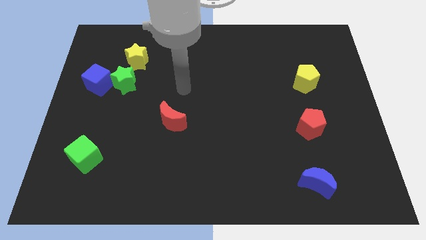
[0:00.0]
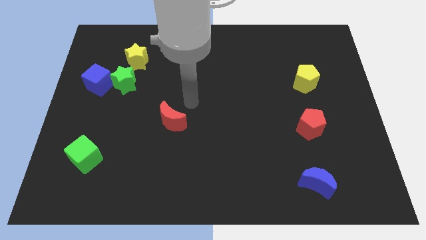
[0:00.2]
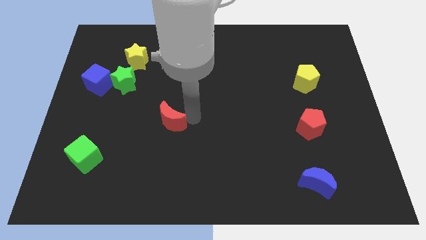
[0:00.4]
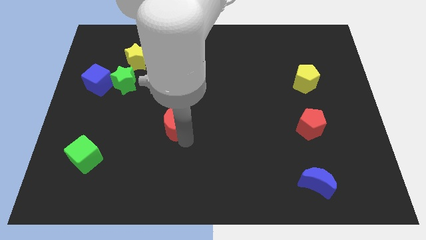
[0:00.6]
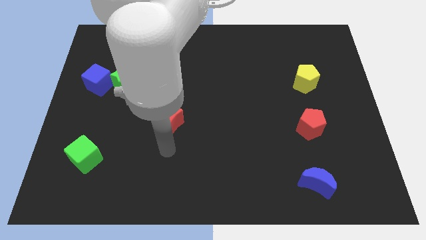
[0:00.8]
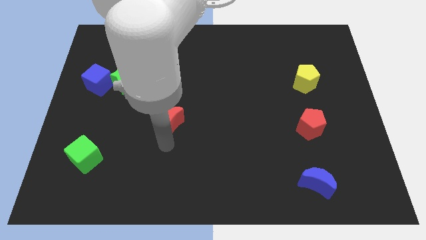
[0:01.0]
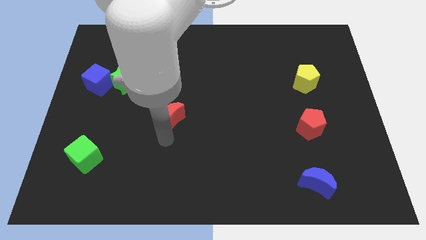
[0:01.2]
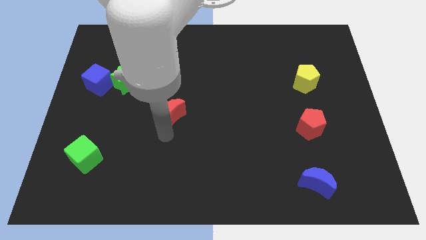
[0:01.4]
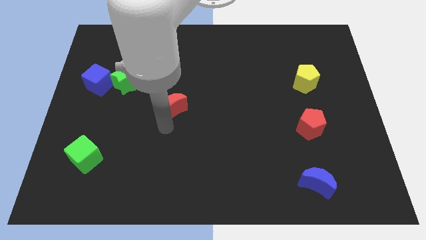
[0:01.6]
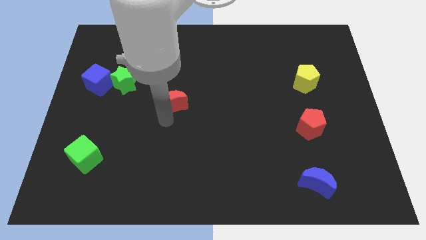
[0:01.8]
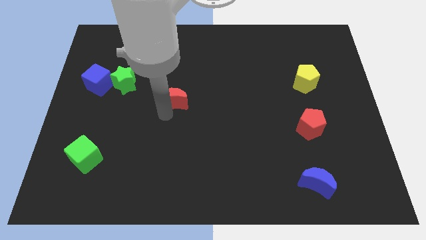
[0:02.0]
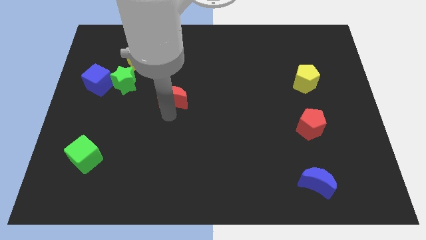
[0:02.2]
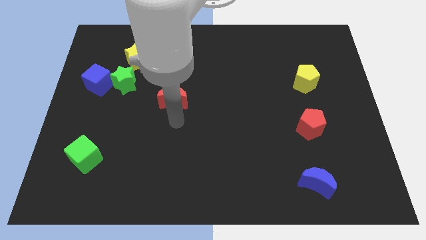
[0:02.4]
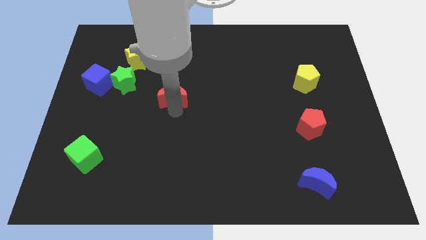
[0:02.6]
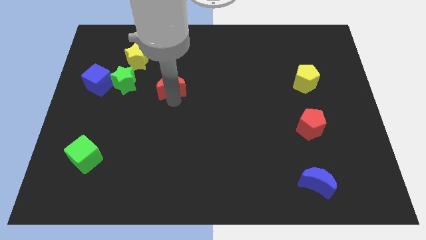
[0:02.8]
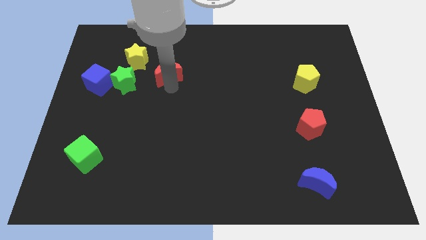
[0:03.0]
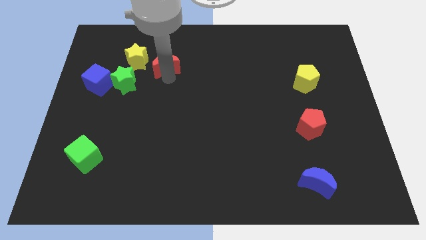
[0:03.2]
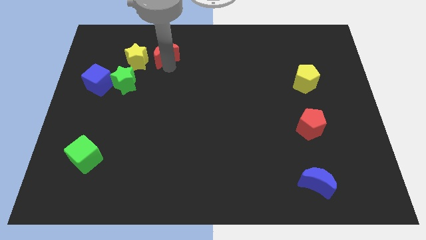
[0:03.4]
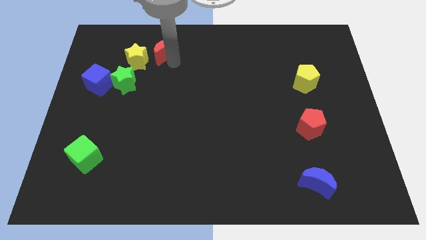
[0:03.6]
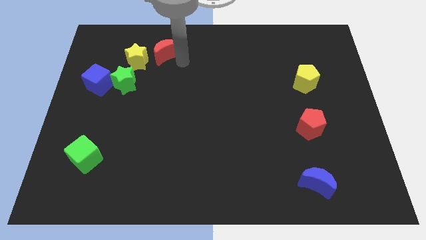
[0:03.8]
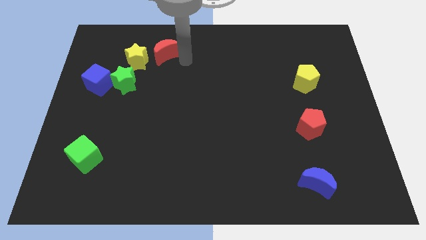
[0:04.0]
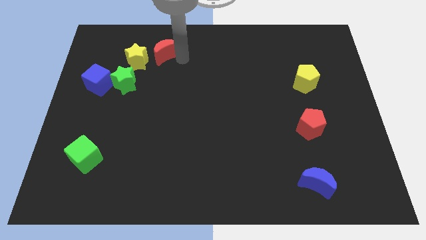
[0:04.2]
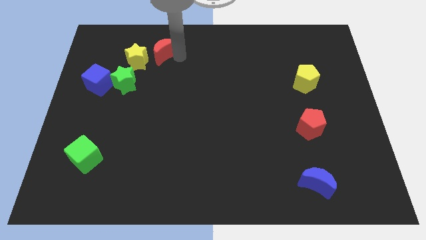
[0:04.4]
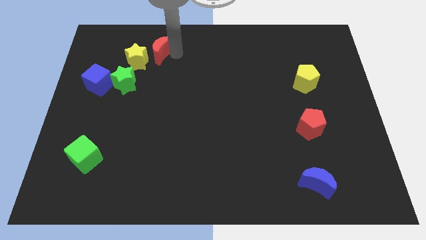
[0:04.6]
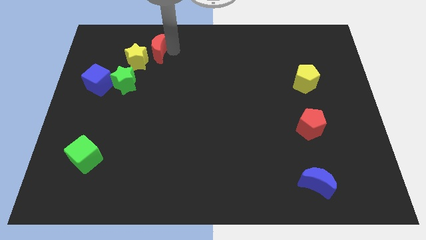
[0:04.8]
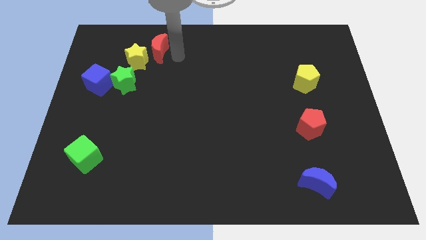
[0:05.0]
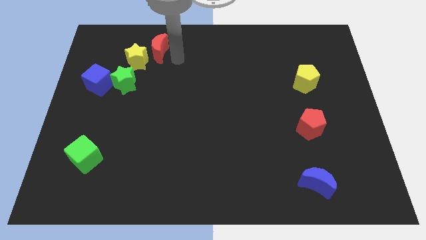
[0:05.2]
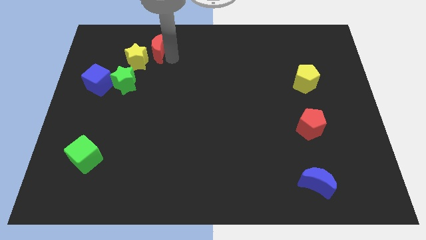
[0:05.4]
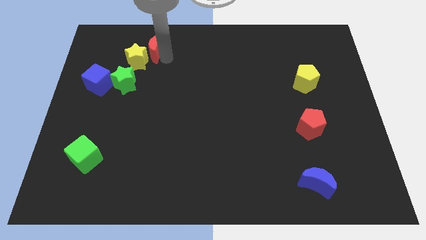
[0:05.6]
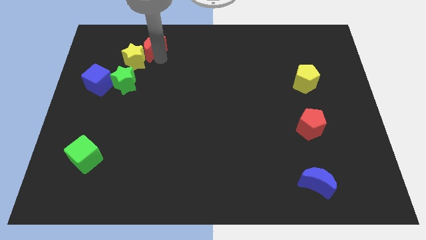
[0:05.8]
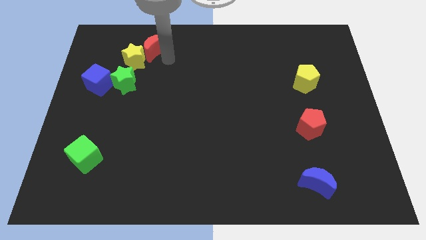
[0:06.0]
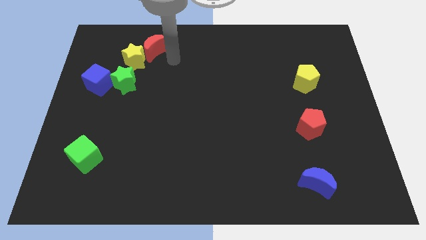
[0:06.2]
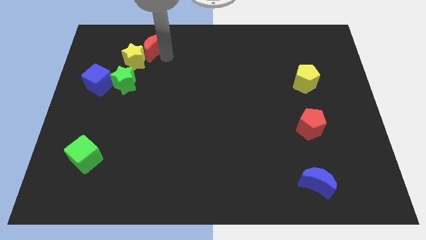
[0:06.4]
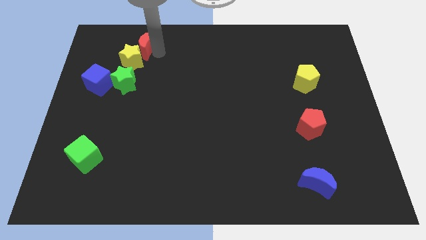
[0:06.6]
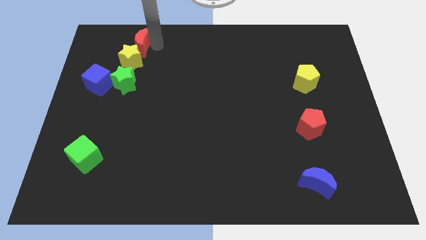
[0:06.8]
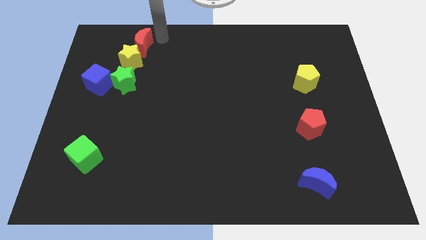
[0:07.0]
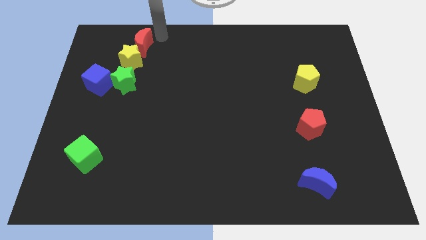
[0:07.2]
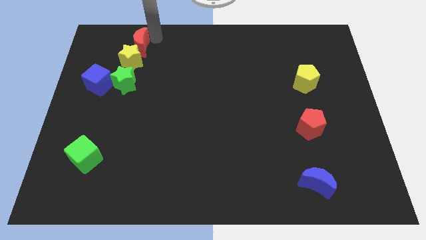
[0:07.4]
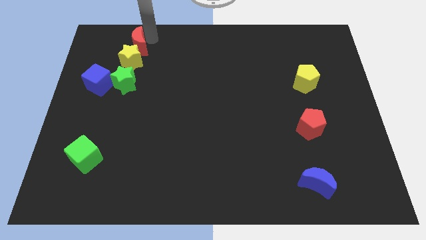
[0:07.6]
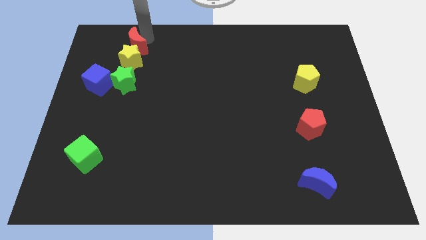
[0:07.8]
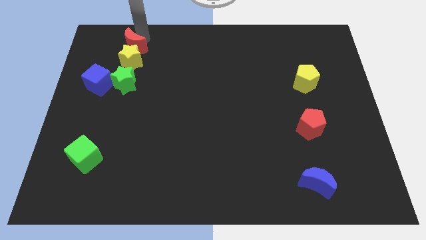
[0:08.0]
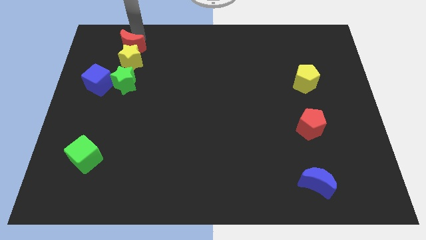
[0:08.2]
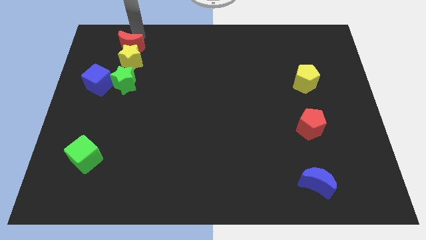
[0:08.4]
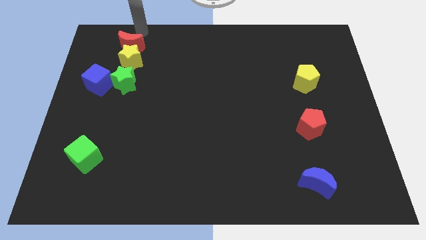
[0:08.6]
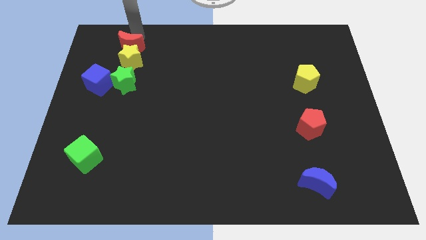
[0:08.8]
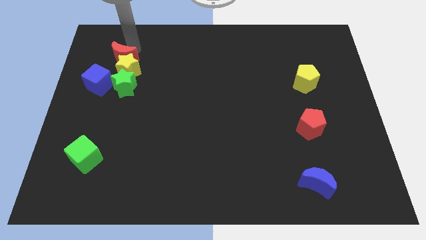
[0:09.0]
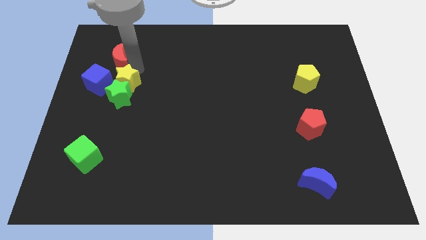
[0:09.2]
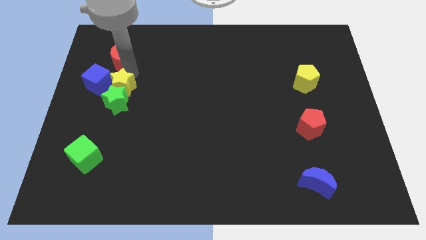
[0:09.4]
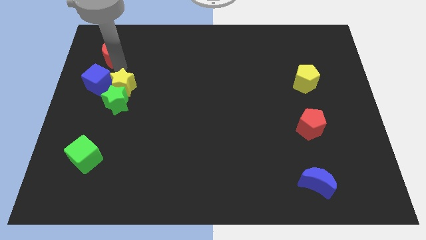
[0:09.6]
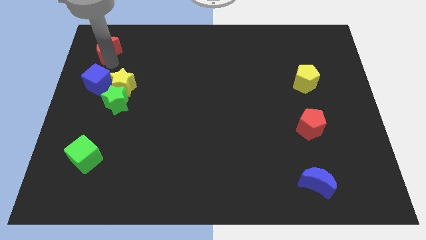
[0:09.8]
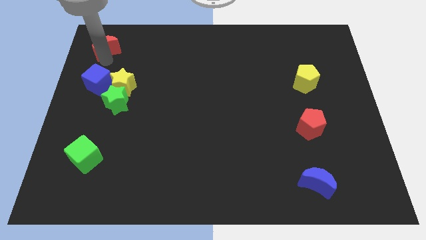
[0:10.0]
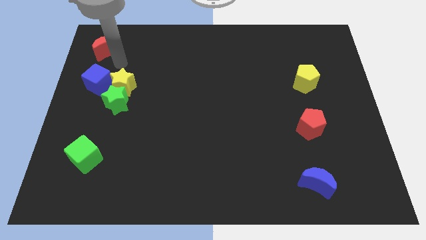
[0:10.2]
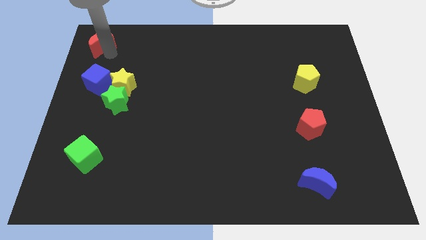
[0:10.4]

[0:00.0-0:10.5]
move the red moon to the top left corner

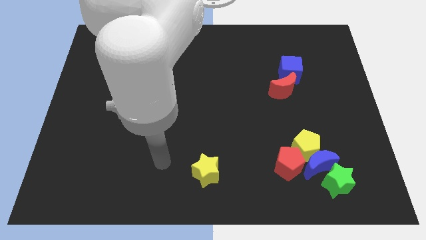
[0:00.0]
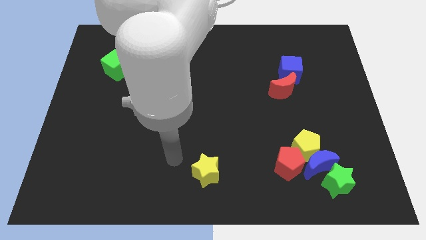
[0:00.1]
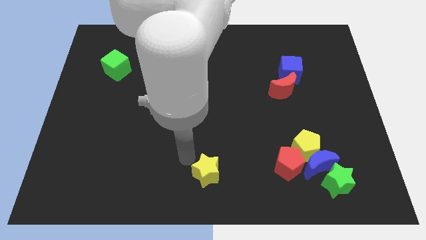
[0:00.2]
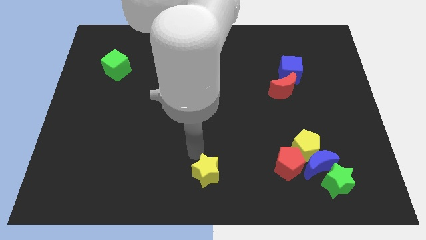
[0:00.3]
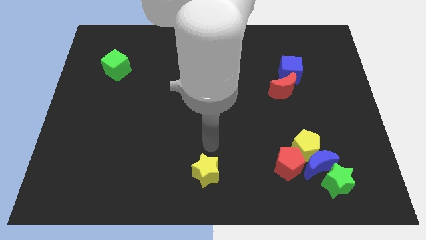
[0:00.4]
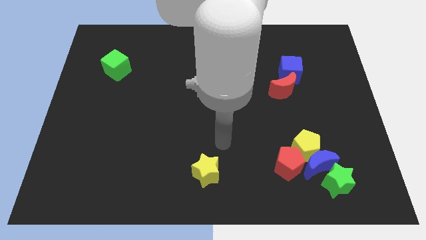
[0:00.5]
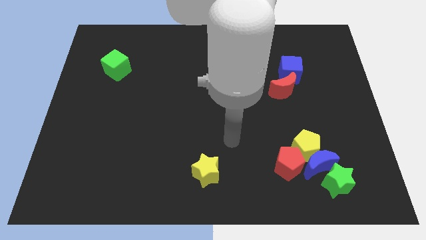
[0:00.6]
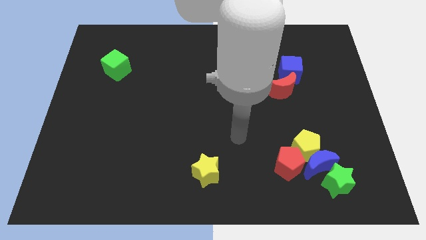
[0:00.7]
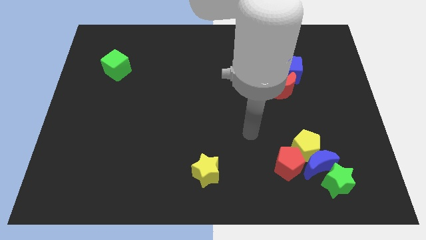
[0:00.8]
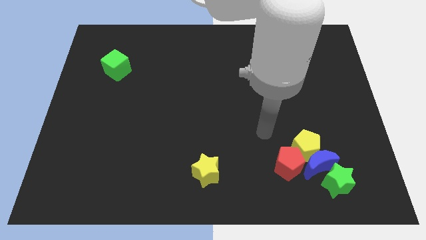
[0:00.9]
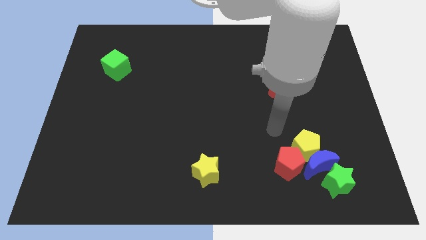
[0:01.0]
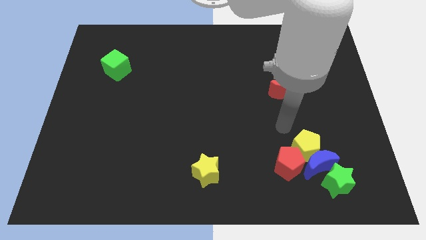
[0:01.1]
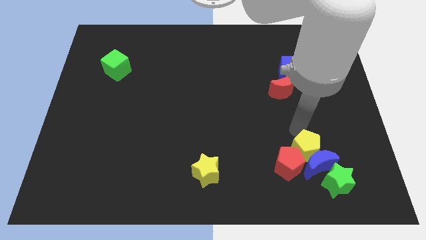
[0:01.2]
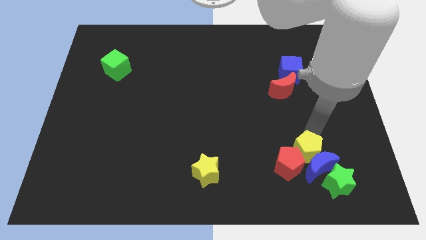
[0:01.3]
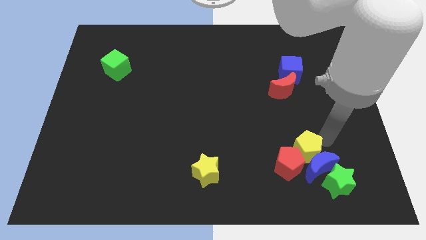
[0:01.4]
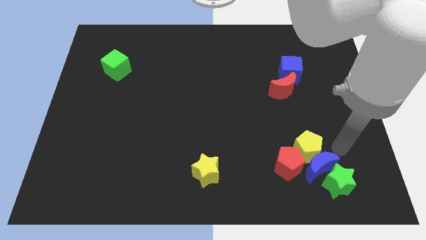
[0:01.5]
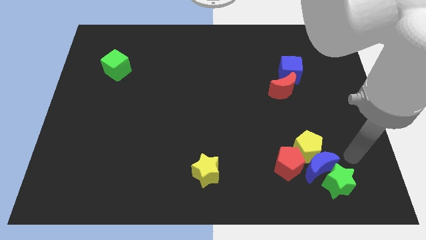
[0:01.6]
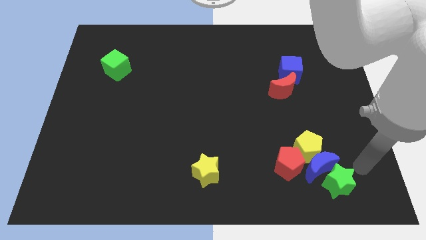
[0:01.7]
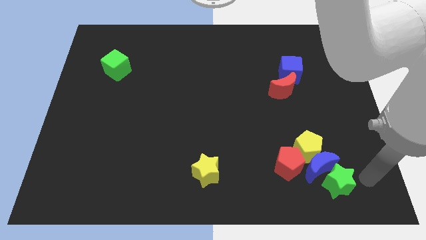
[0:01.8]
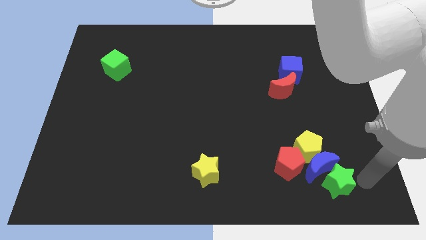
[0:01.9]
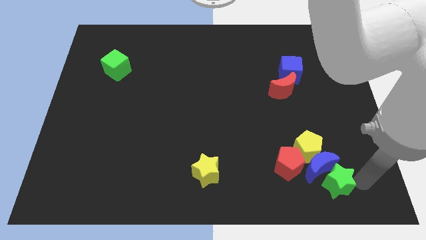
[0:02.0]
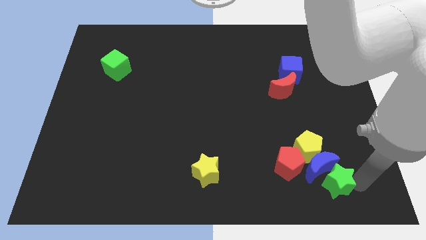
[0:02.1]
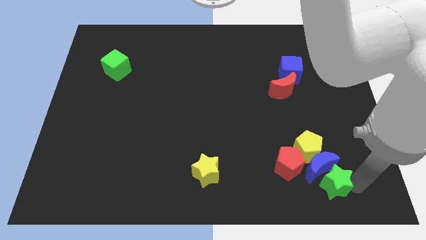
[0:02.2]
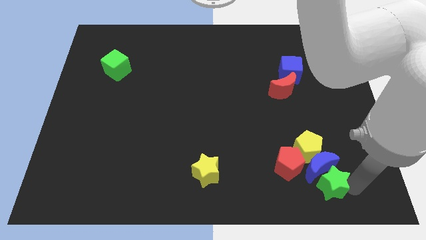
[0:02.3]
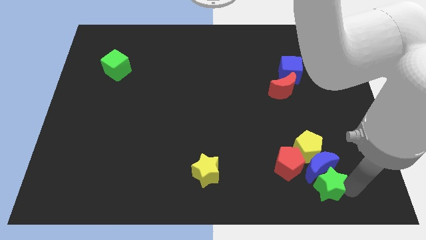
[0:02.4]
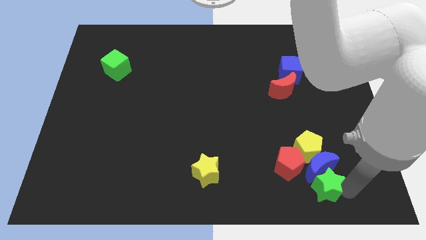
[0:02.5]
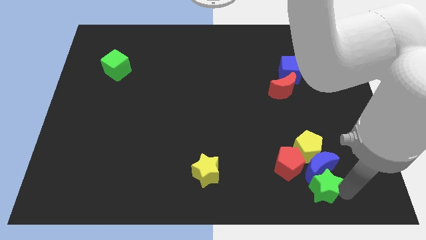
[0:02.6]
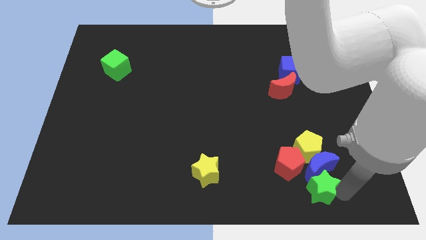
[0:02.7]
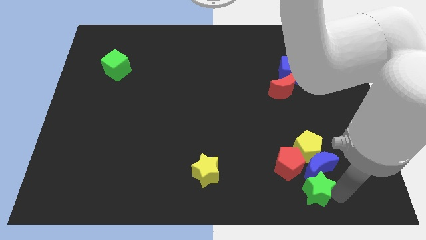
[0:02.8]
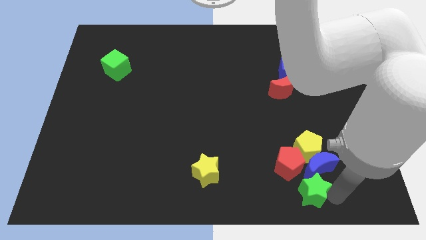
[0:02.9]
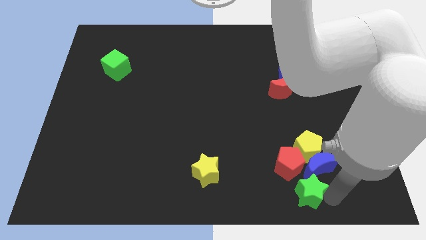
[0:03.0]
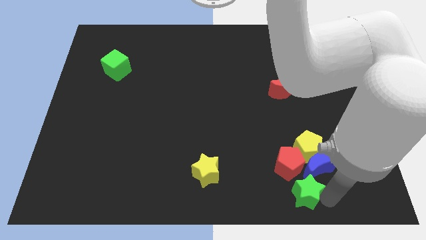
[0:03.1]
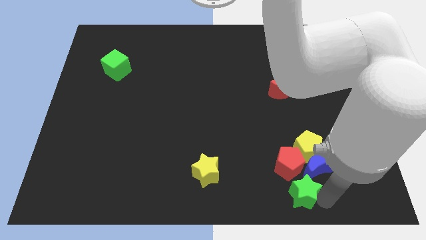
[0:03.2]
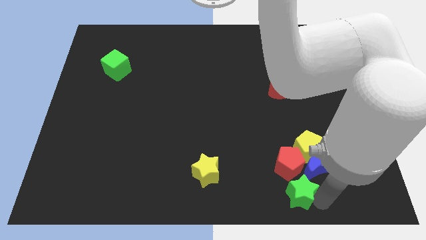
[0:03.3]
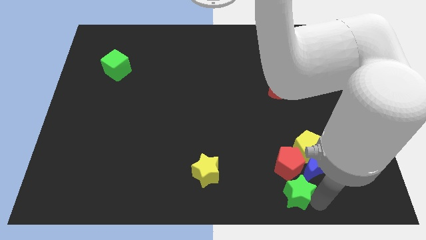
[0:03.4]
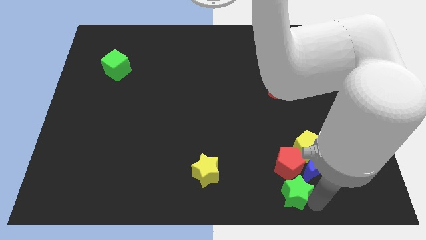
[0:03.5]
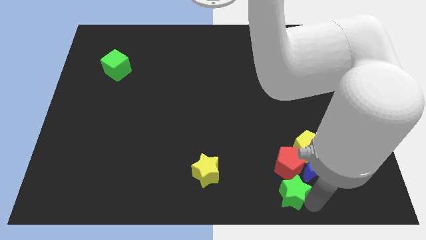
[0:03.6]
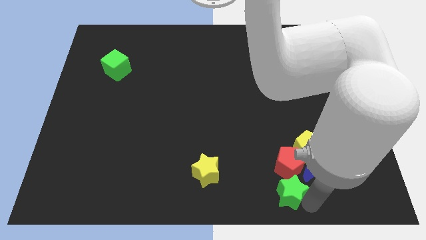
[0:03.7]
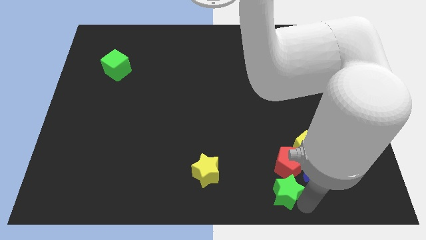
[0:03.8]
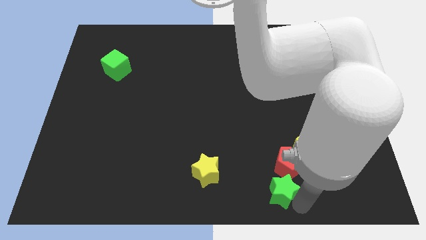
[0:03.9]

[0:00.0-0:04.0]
put the green star to the bottom side
